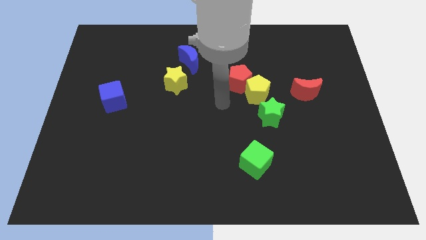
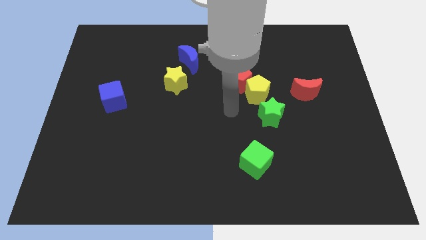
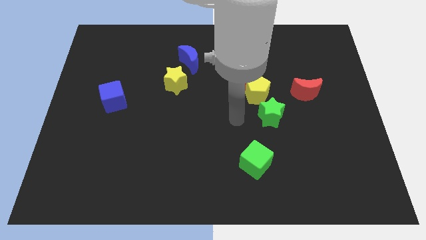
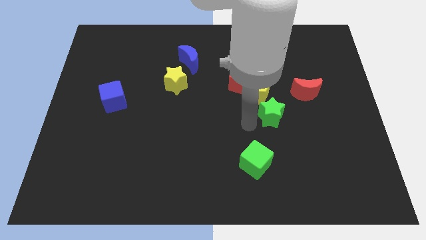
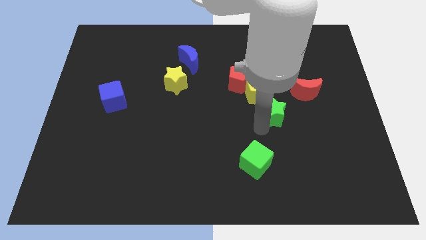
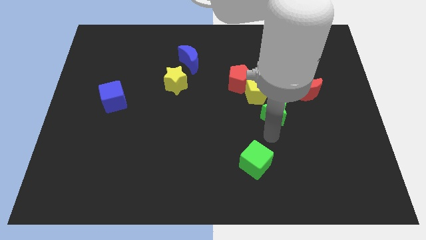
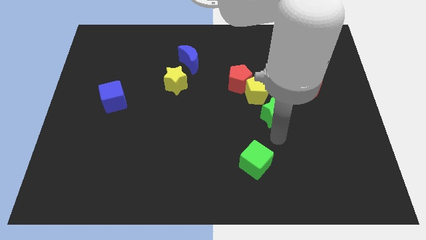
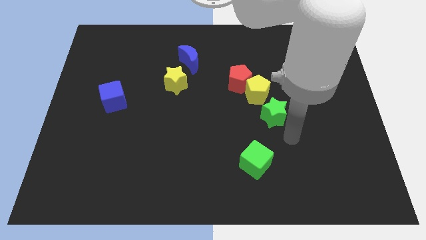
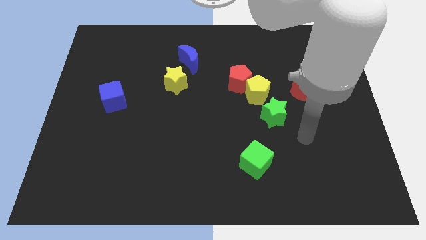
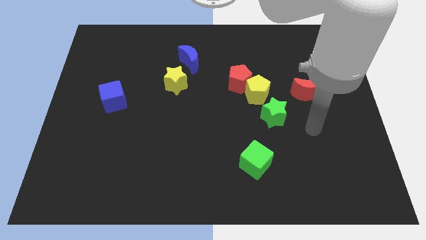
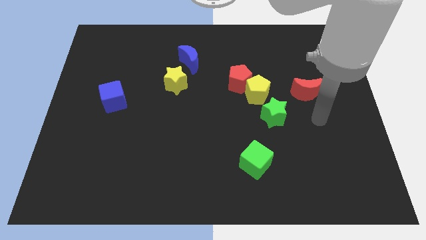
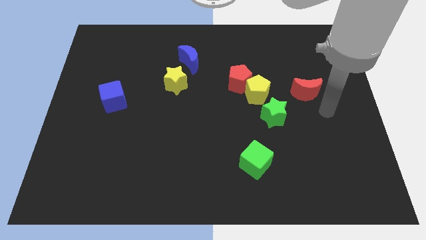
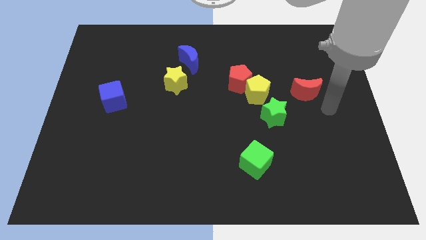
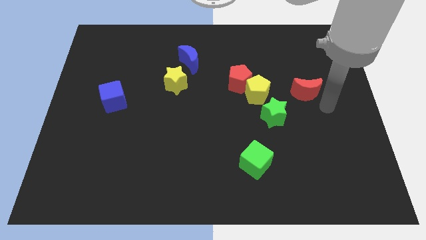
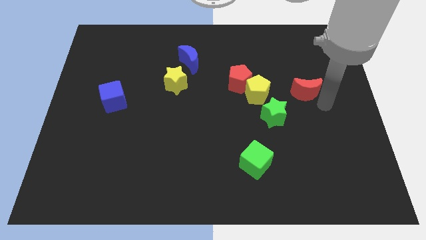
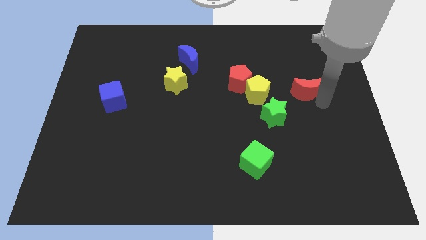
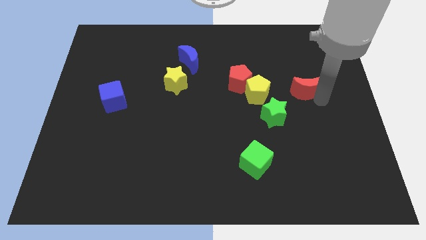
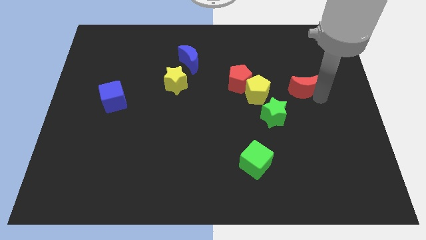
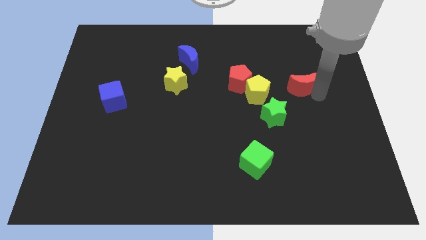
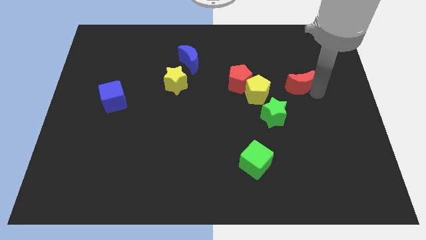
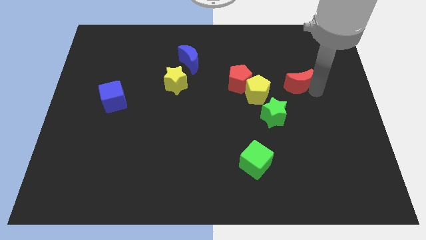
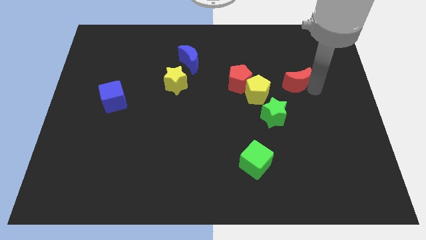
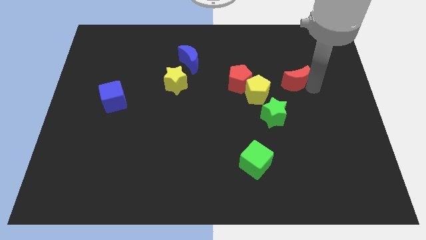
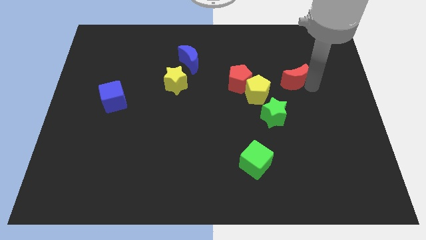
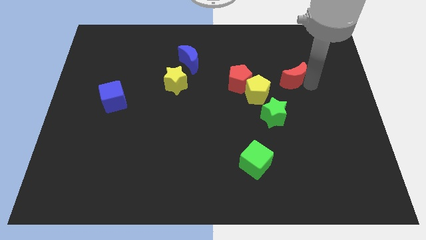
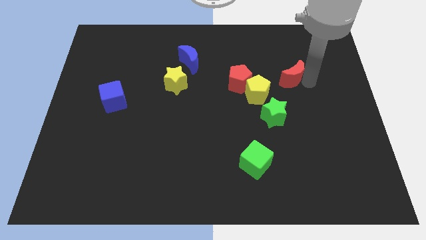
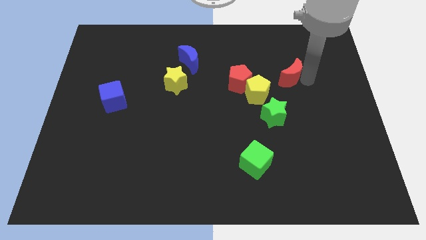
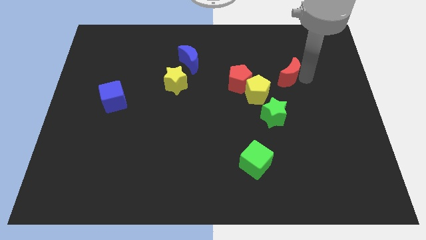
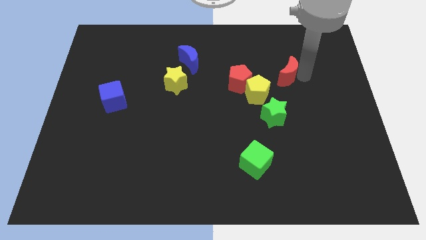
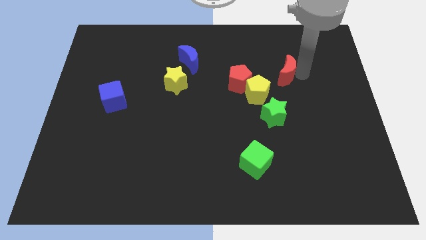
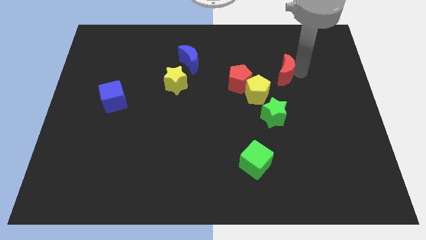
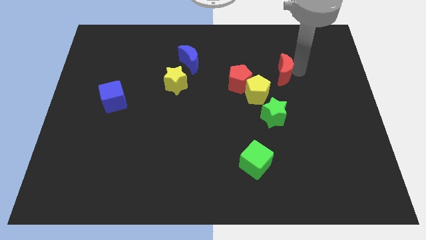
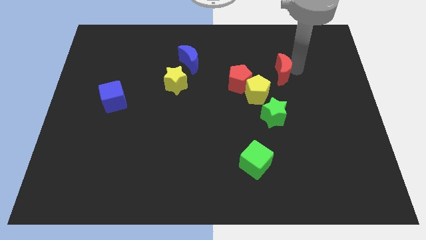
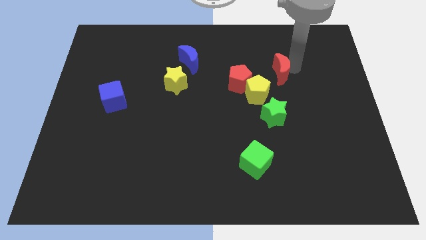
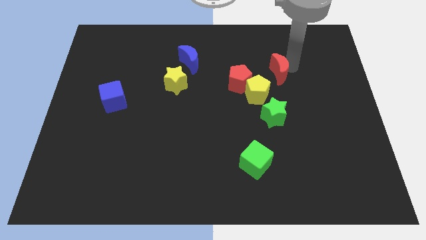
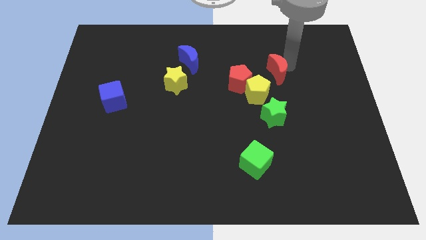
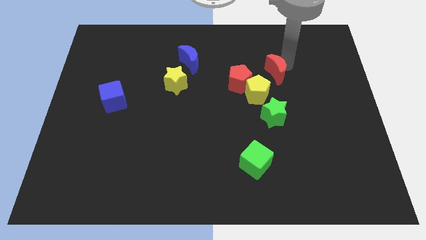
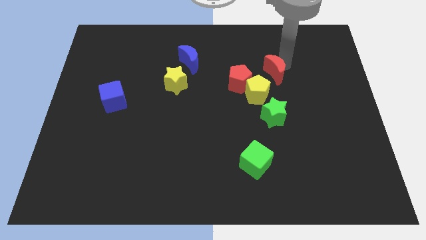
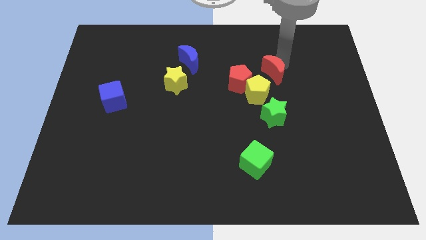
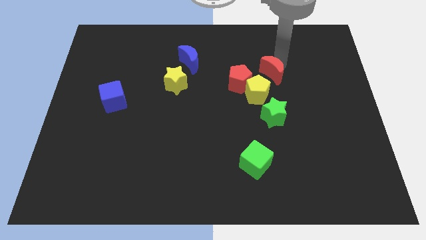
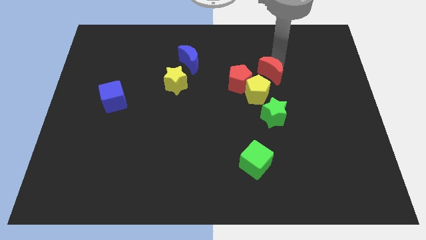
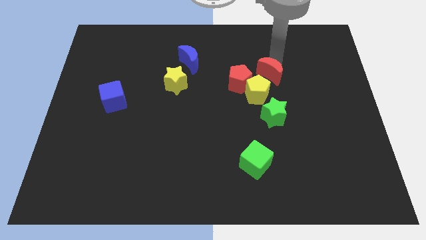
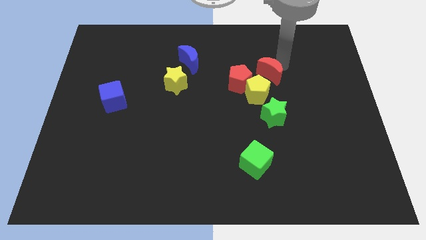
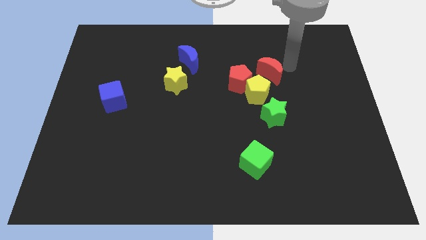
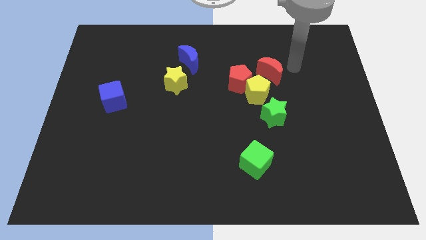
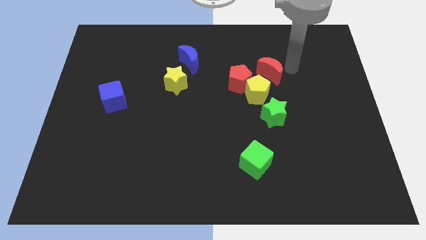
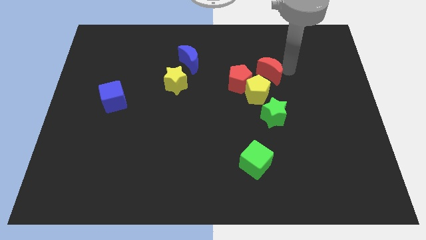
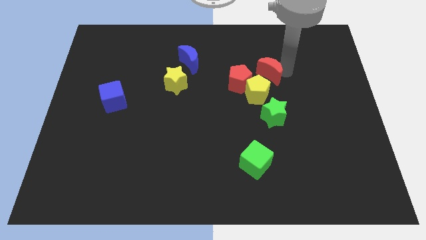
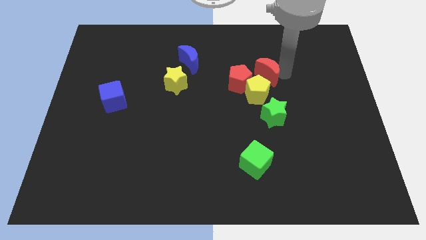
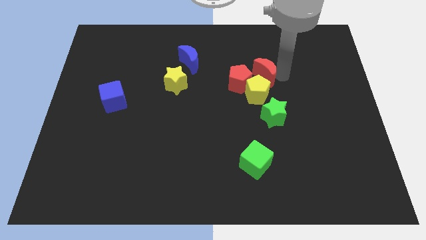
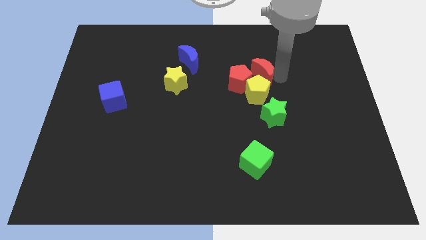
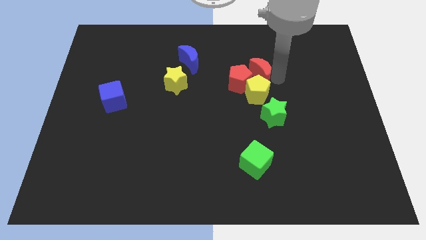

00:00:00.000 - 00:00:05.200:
push the red moon next to the red pentagon

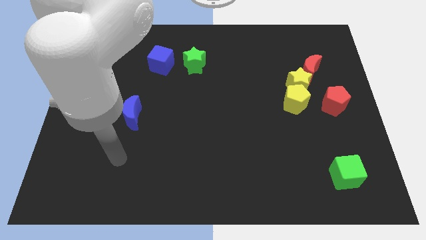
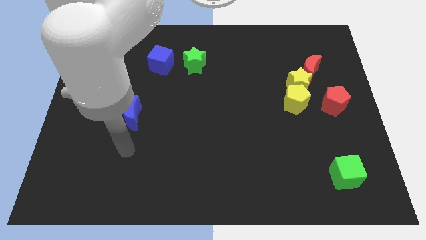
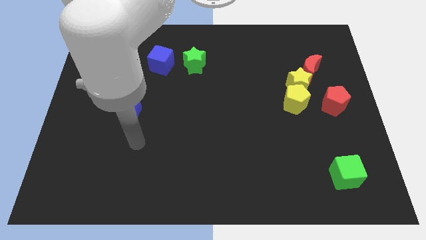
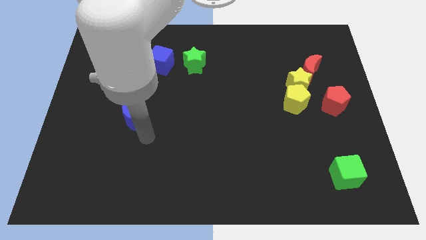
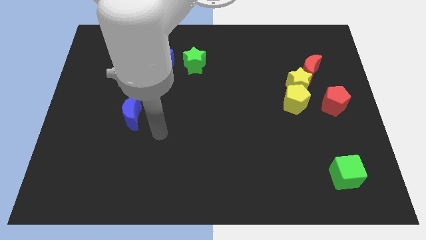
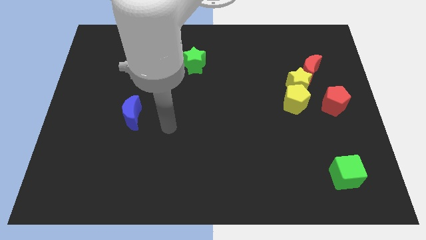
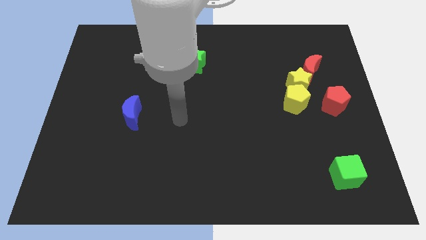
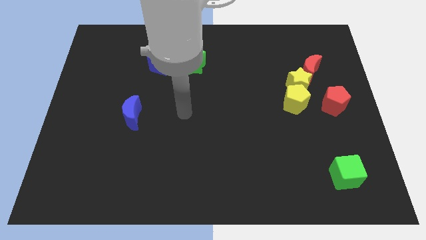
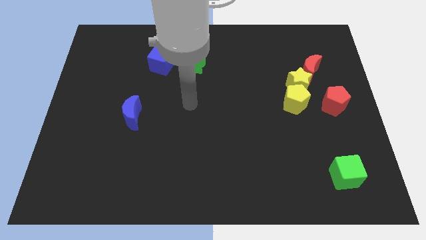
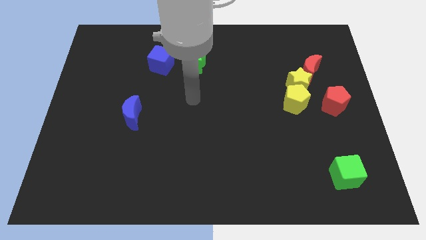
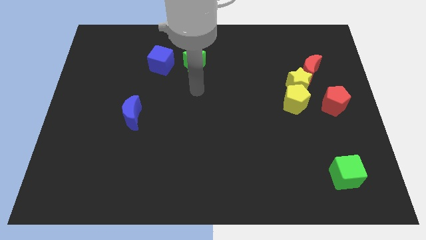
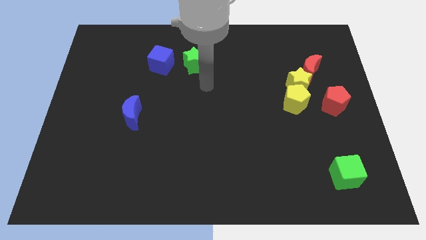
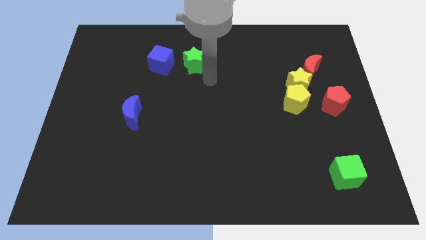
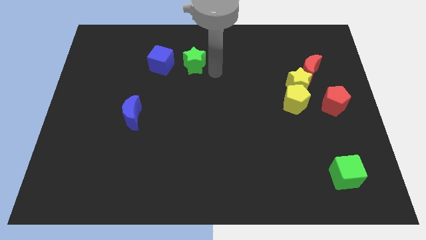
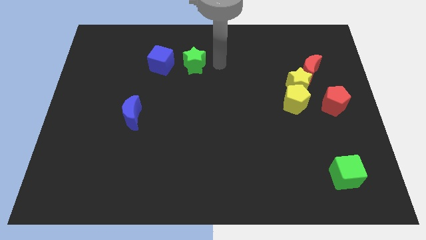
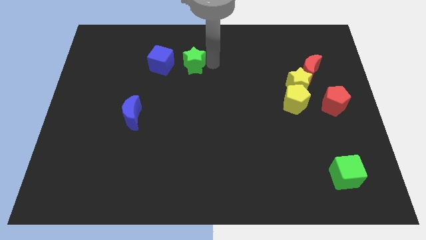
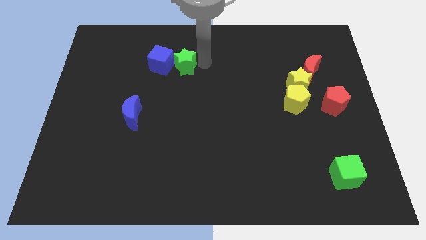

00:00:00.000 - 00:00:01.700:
push the green star to the blue cube
